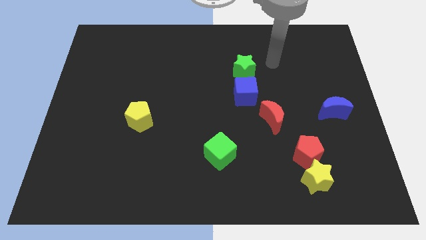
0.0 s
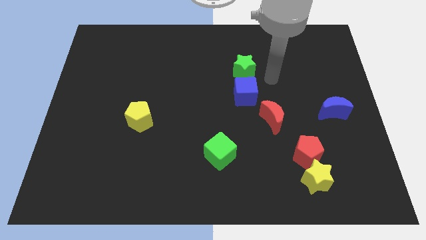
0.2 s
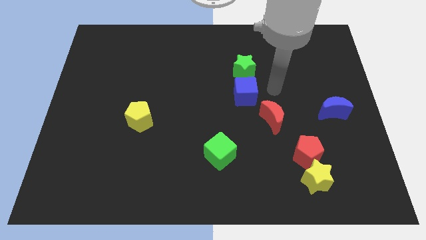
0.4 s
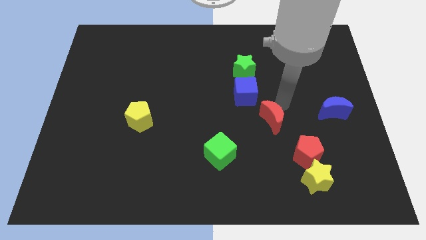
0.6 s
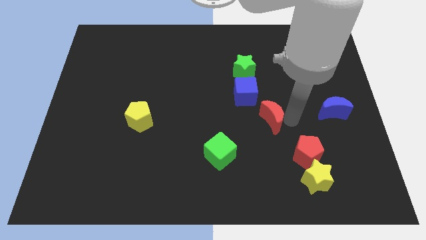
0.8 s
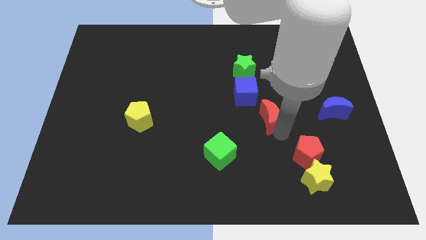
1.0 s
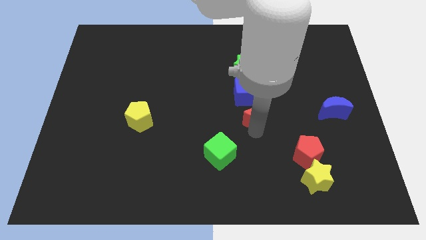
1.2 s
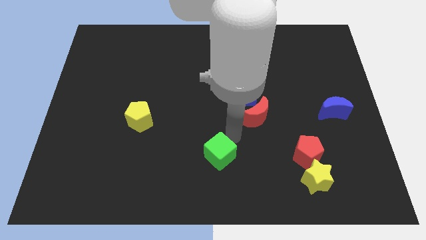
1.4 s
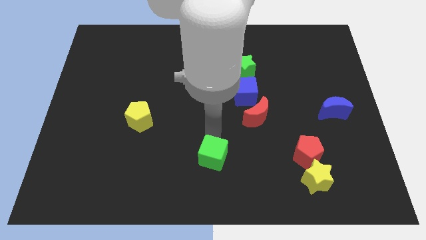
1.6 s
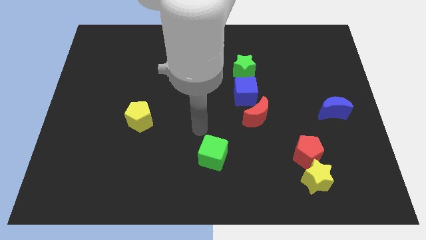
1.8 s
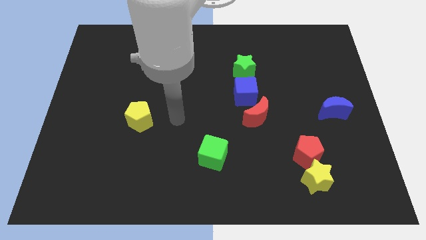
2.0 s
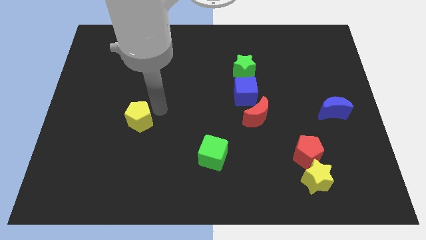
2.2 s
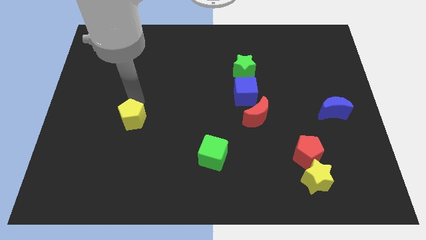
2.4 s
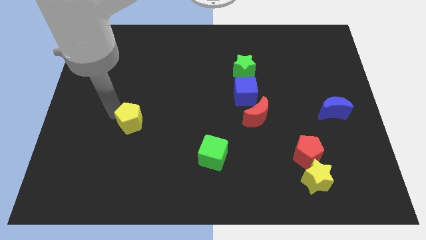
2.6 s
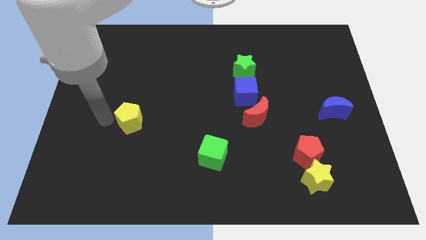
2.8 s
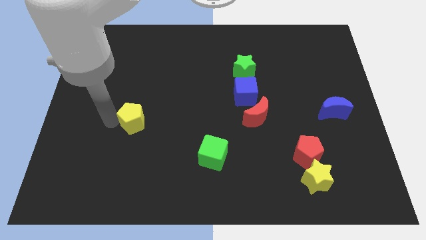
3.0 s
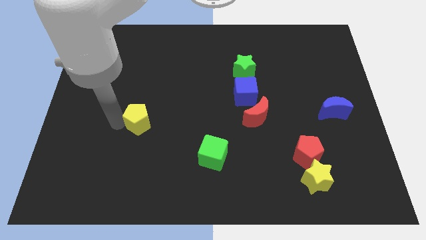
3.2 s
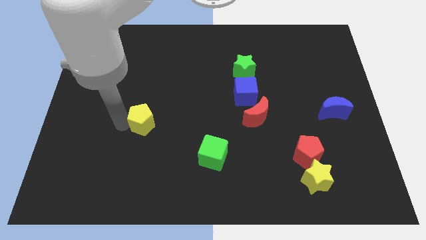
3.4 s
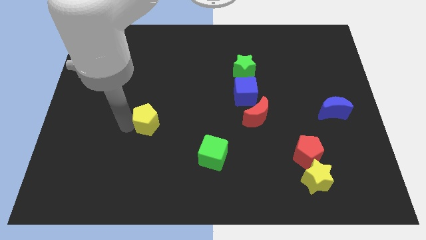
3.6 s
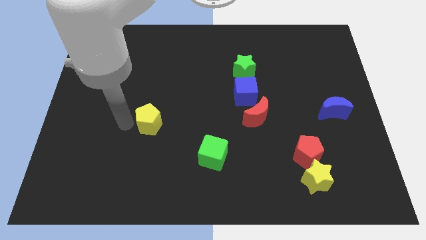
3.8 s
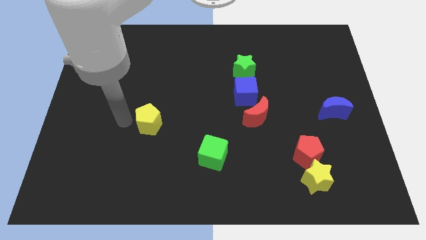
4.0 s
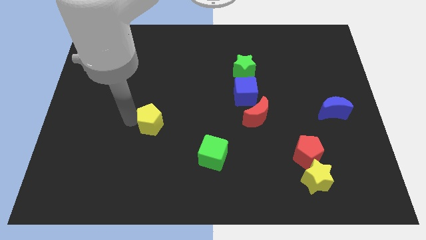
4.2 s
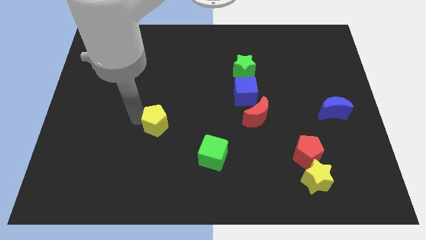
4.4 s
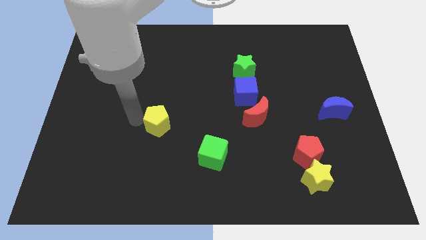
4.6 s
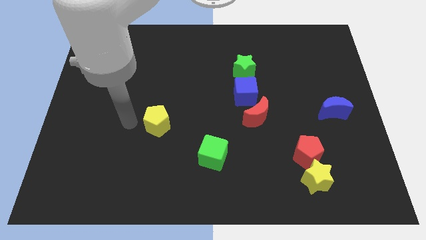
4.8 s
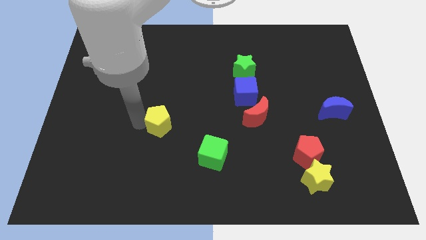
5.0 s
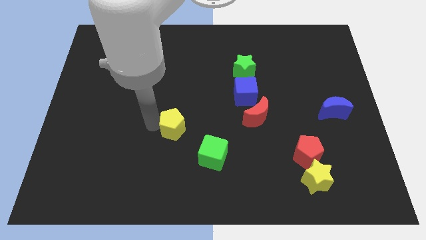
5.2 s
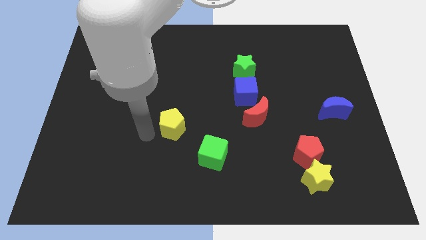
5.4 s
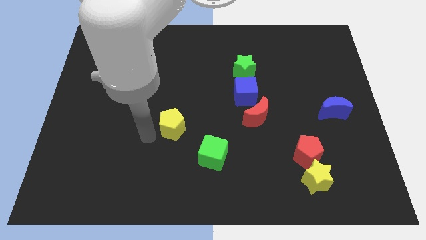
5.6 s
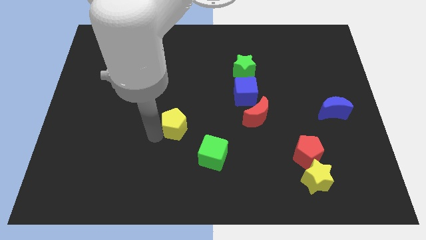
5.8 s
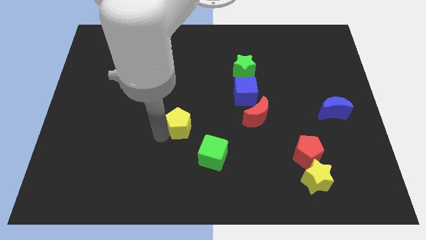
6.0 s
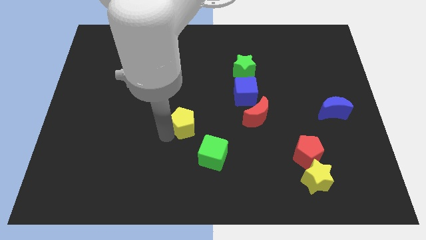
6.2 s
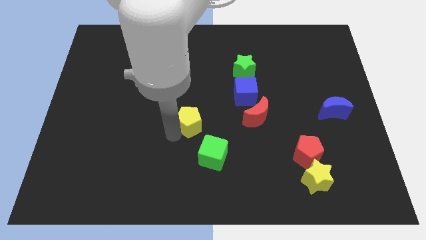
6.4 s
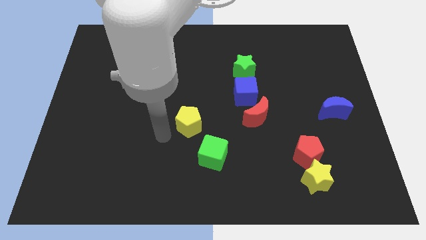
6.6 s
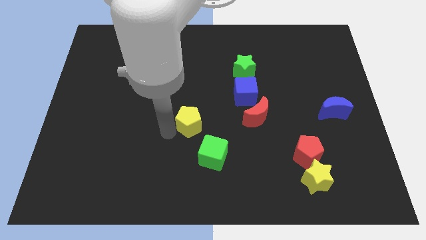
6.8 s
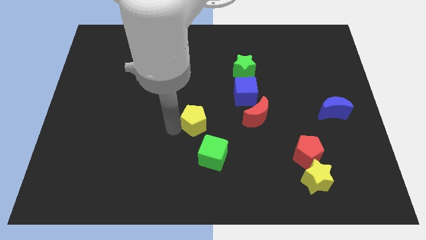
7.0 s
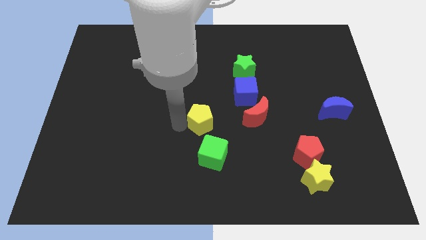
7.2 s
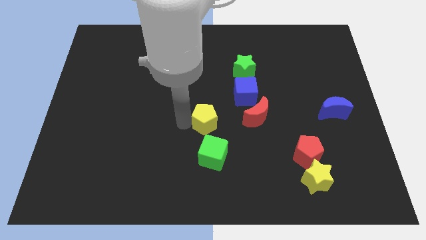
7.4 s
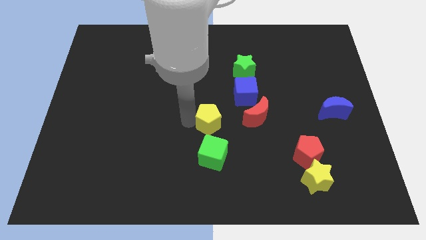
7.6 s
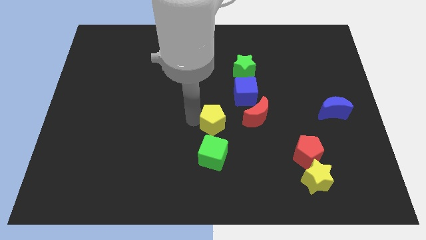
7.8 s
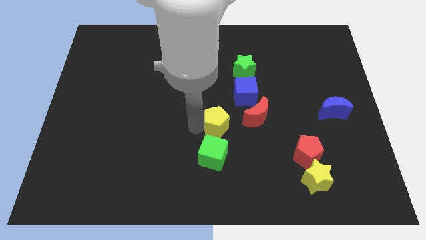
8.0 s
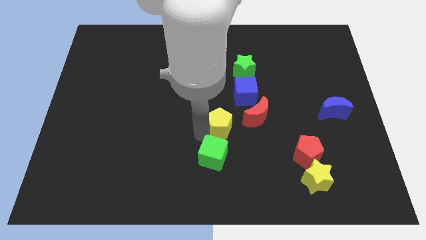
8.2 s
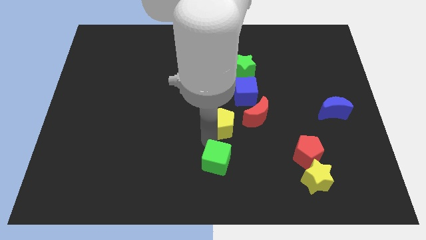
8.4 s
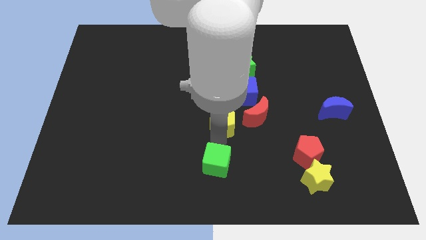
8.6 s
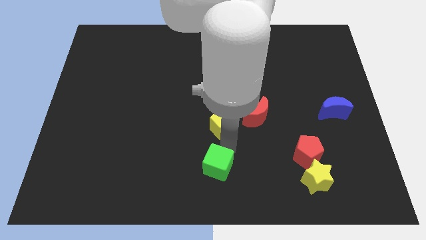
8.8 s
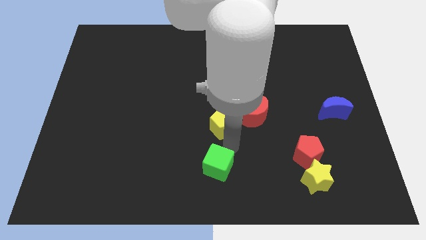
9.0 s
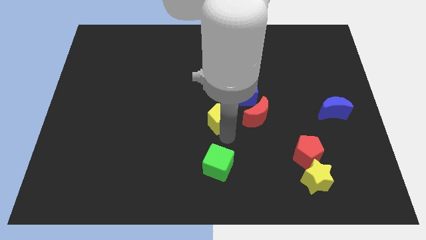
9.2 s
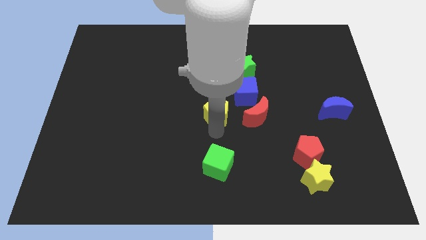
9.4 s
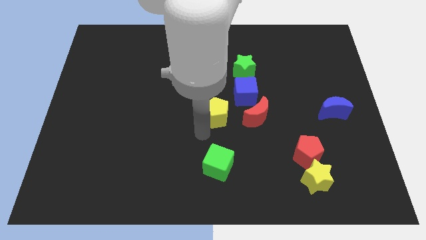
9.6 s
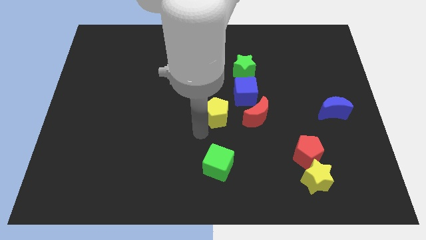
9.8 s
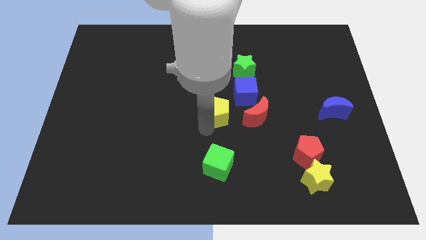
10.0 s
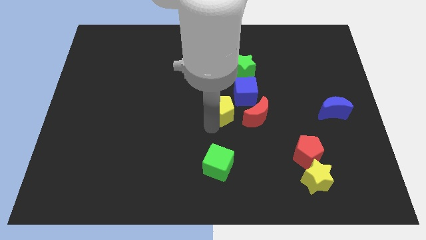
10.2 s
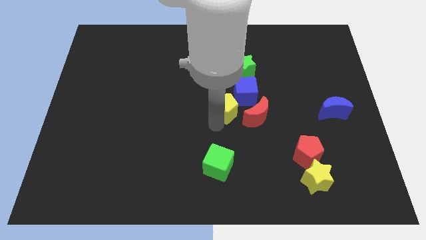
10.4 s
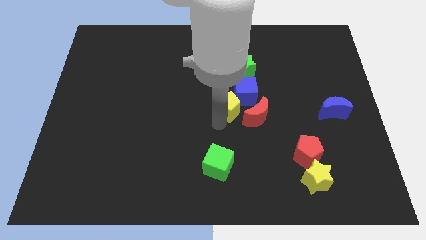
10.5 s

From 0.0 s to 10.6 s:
slide the yellow pentagon to the blue cube

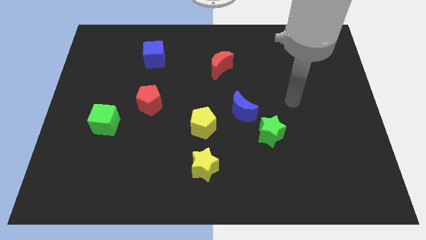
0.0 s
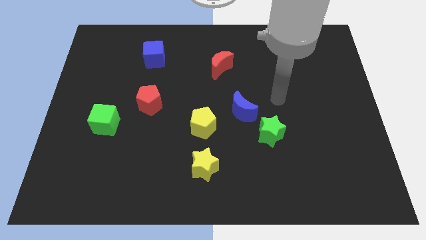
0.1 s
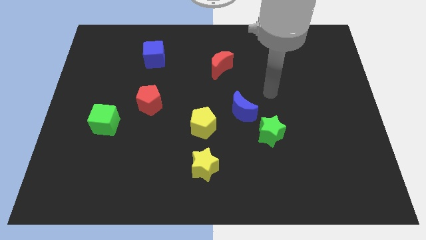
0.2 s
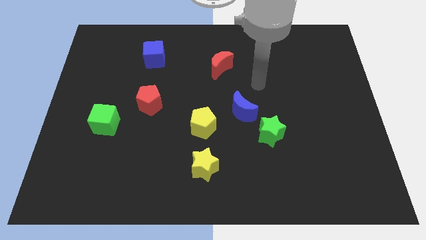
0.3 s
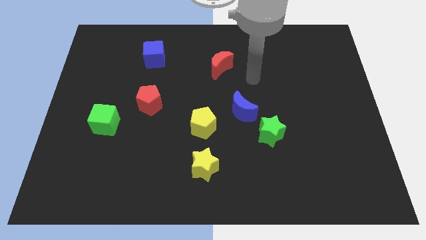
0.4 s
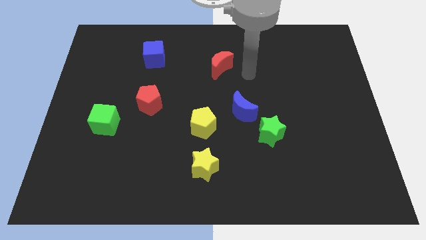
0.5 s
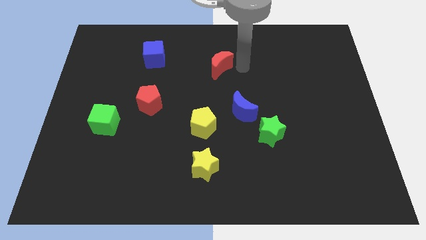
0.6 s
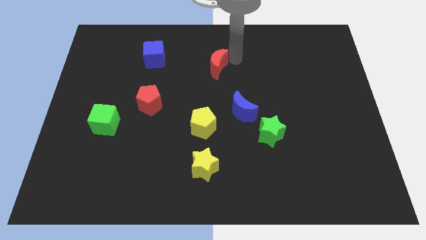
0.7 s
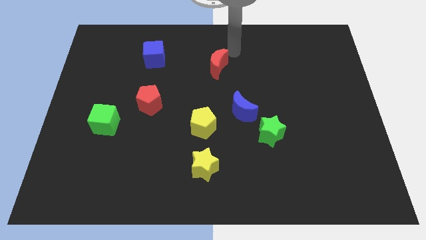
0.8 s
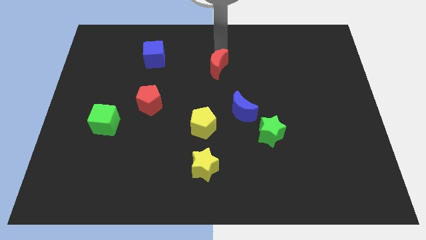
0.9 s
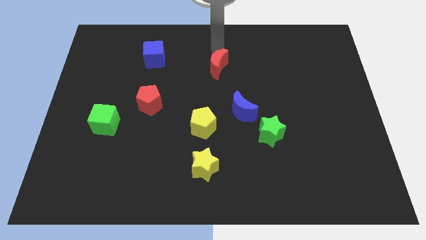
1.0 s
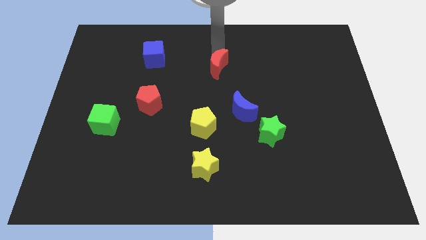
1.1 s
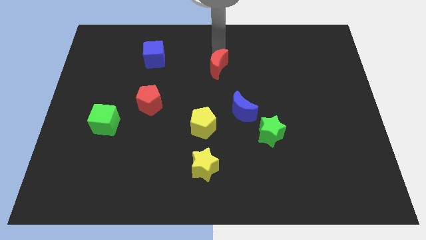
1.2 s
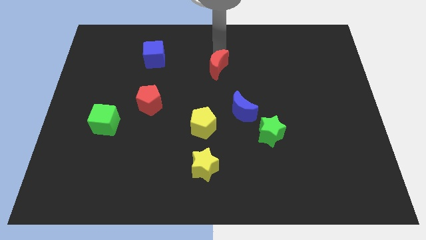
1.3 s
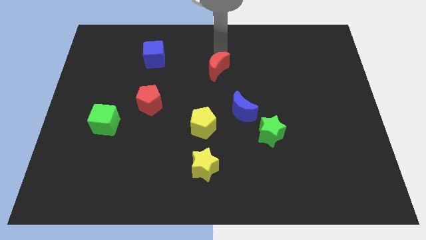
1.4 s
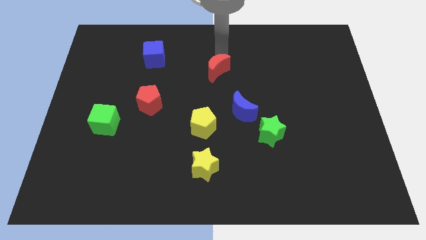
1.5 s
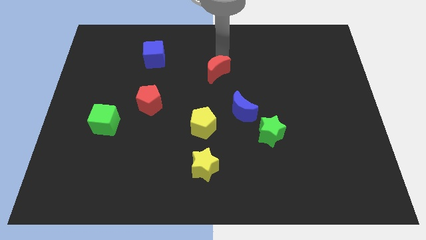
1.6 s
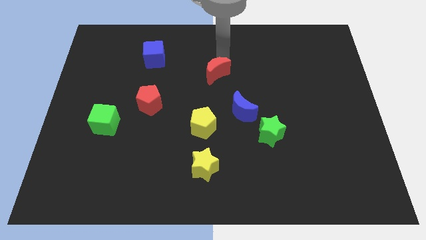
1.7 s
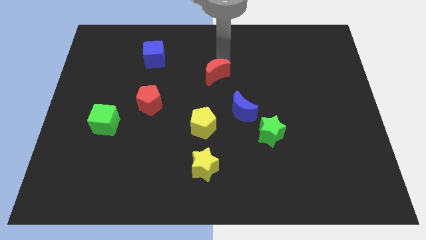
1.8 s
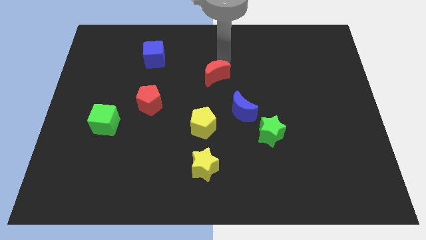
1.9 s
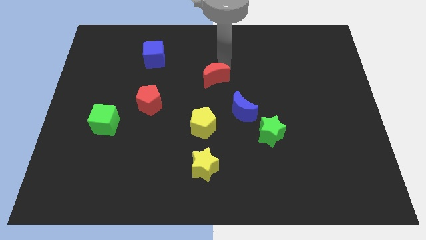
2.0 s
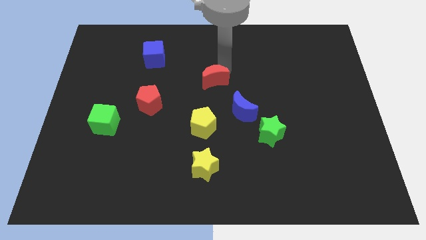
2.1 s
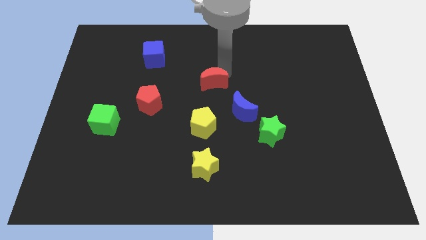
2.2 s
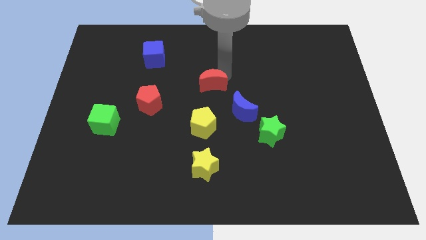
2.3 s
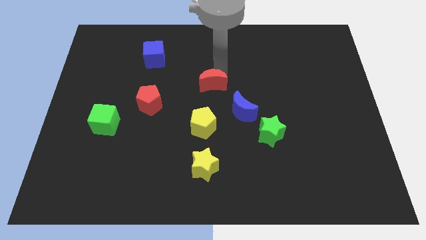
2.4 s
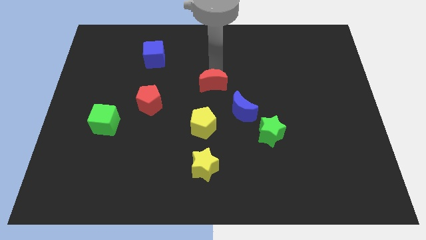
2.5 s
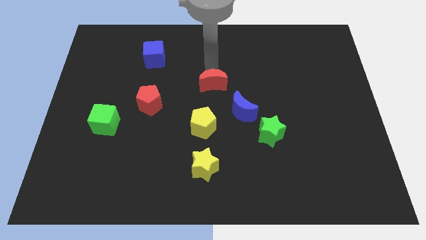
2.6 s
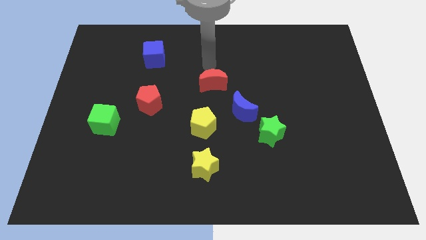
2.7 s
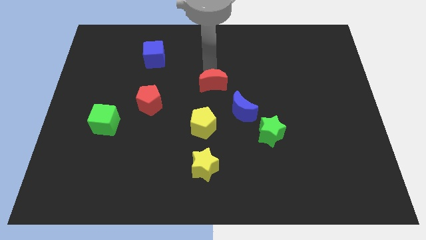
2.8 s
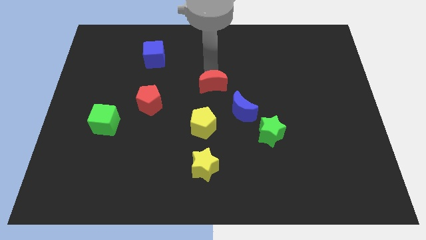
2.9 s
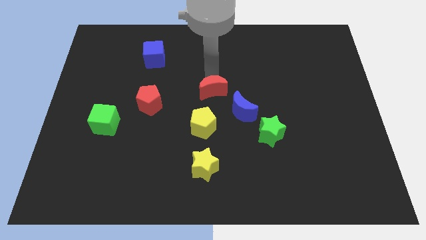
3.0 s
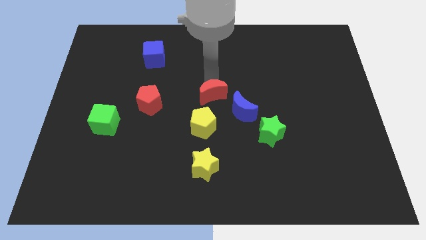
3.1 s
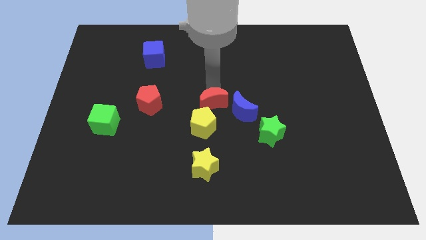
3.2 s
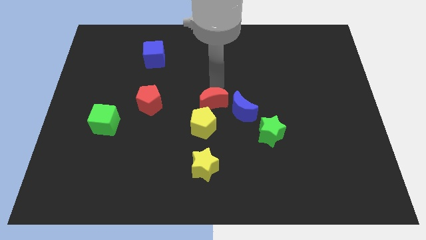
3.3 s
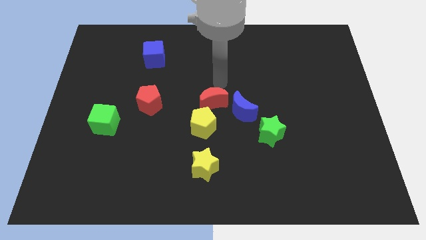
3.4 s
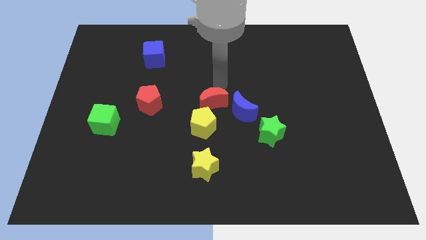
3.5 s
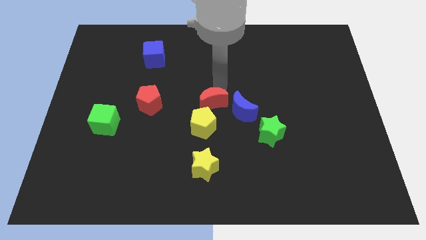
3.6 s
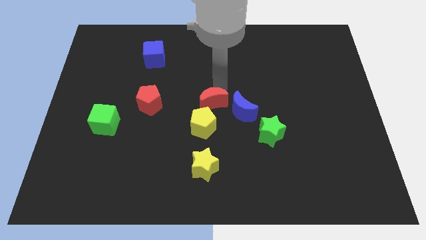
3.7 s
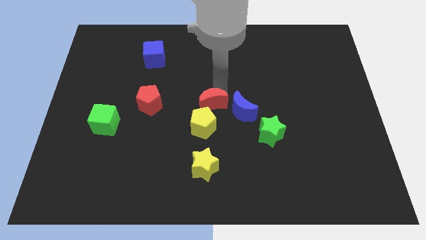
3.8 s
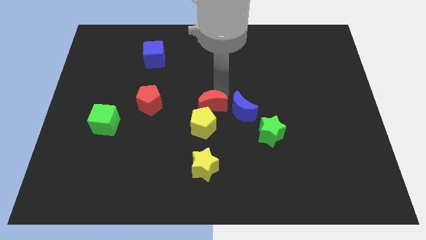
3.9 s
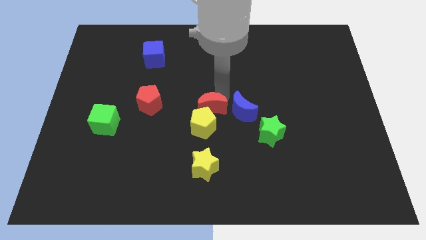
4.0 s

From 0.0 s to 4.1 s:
move the red moon to the yellow pentagon
